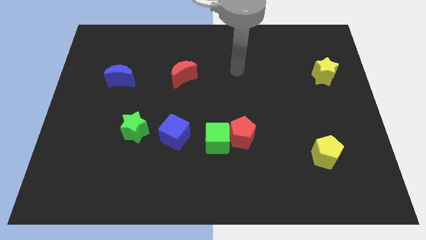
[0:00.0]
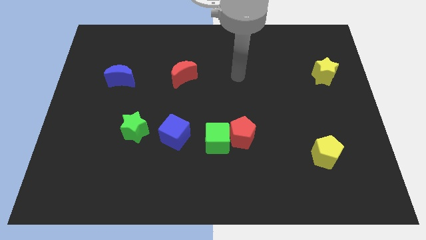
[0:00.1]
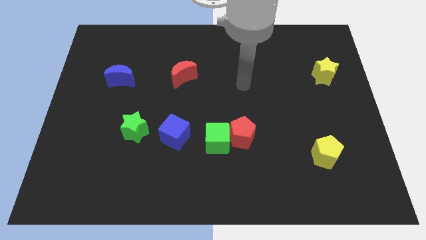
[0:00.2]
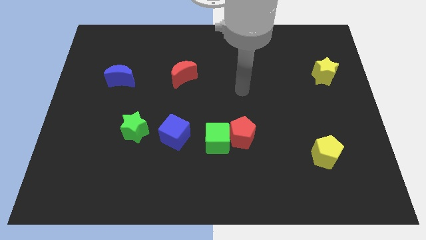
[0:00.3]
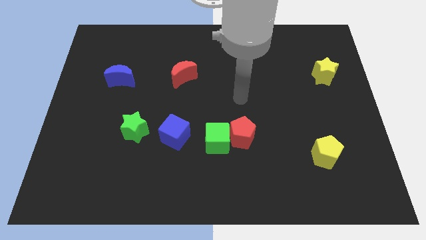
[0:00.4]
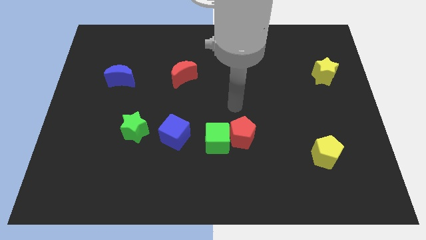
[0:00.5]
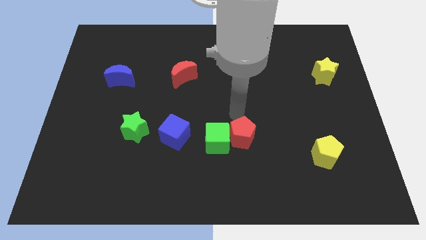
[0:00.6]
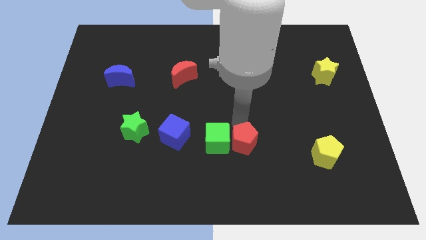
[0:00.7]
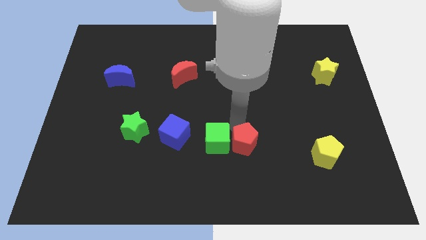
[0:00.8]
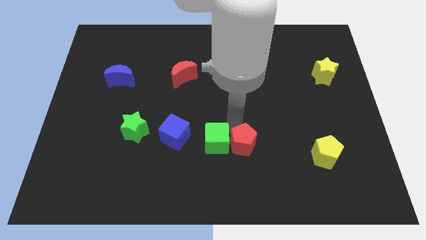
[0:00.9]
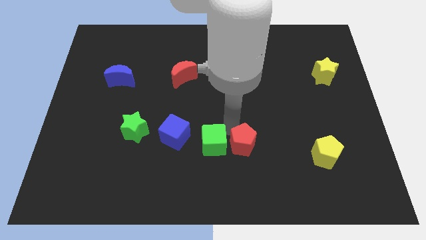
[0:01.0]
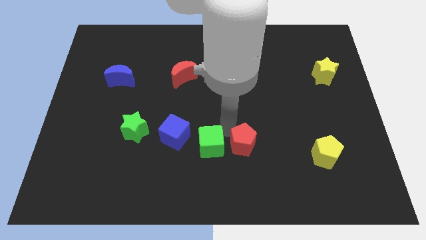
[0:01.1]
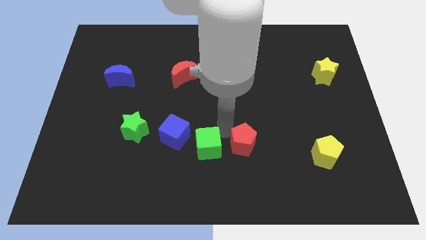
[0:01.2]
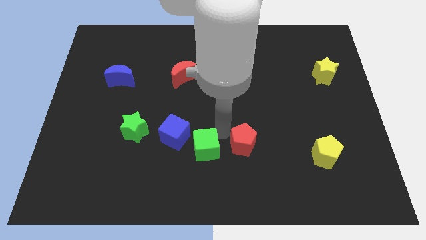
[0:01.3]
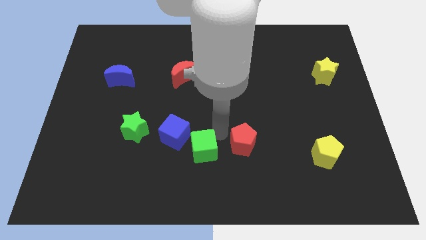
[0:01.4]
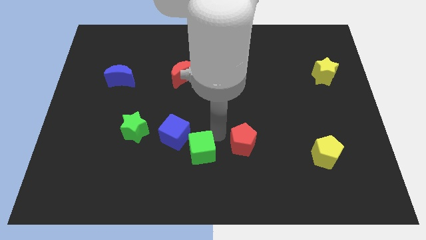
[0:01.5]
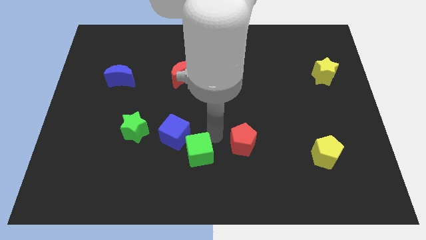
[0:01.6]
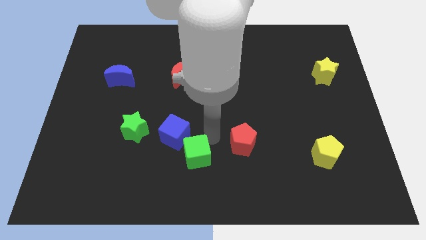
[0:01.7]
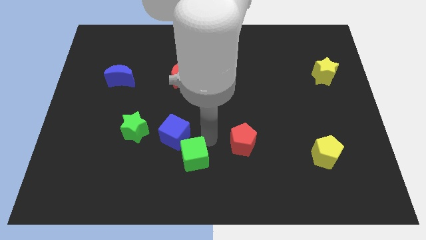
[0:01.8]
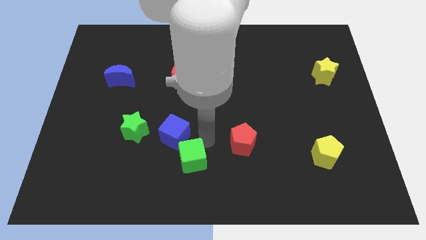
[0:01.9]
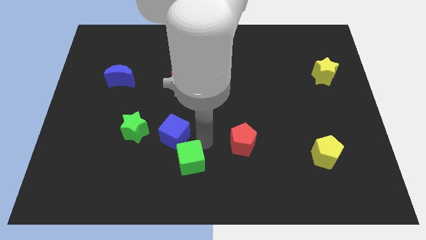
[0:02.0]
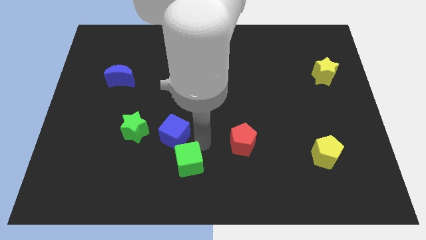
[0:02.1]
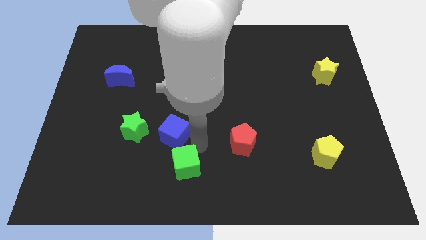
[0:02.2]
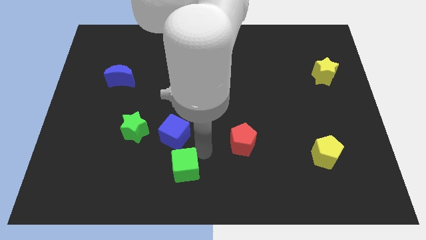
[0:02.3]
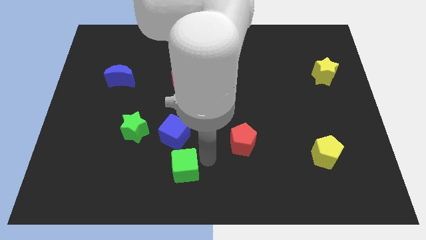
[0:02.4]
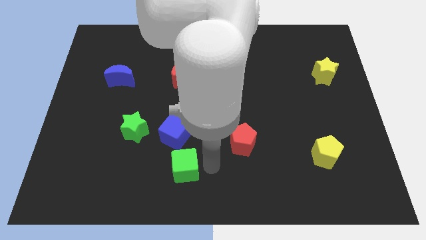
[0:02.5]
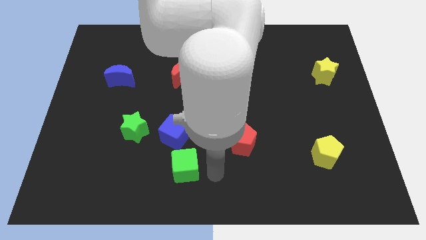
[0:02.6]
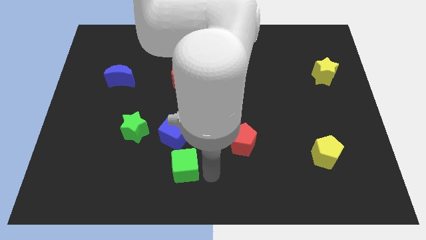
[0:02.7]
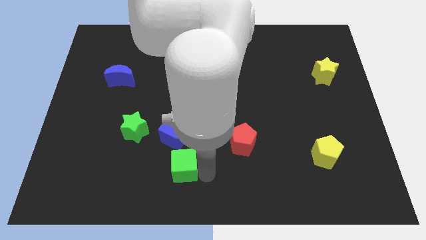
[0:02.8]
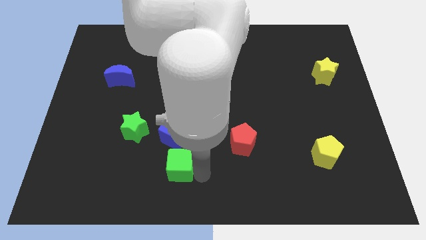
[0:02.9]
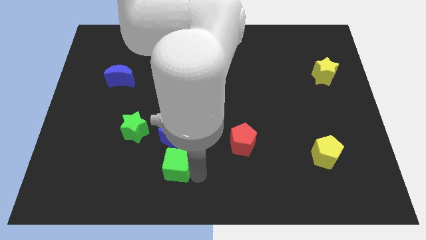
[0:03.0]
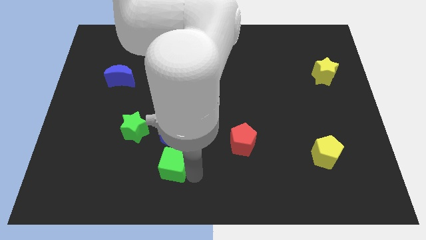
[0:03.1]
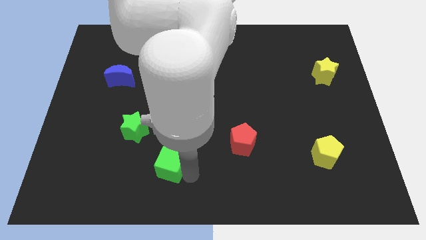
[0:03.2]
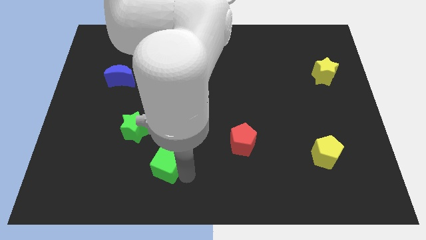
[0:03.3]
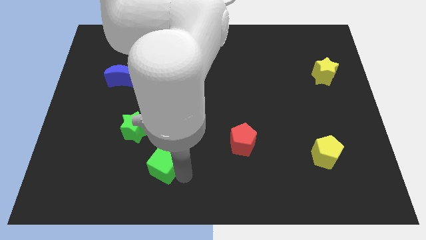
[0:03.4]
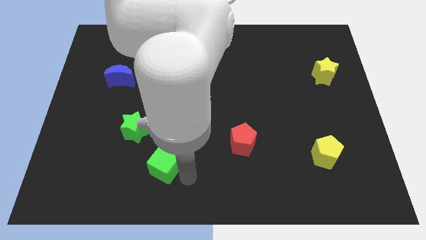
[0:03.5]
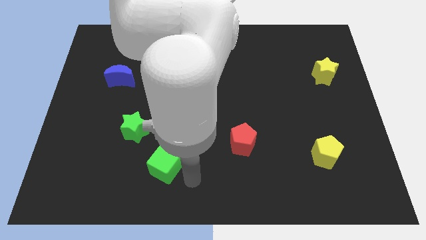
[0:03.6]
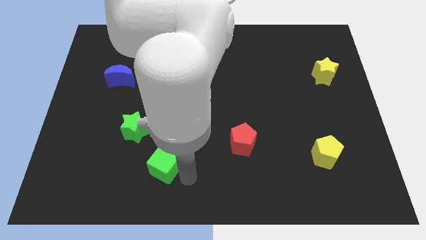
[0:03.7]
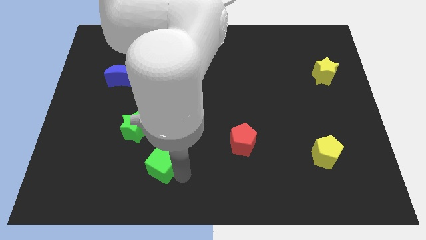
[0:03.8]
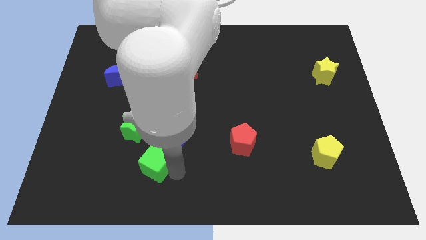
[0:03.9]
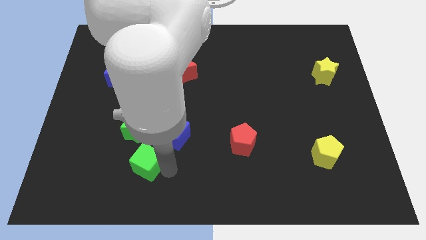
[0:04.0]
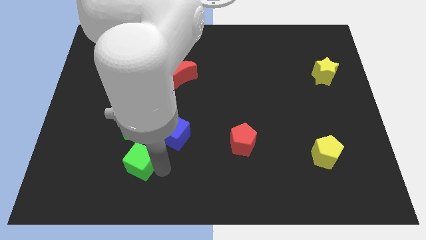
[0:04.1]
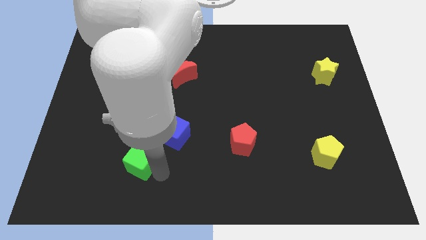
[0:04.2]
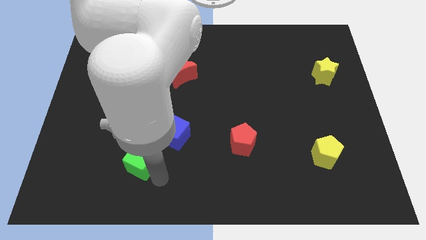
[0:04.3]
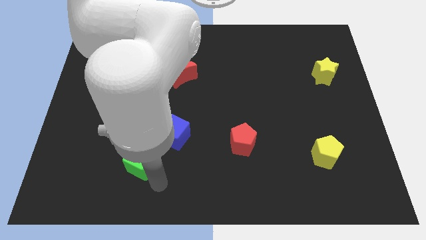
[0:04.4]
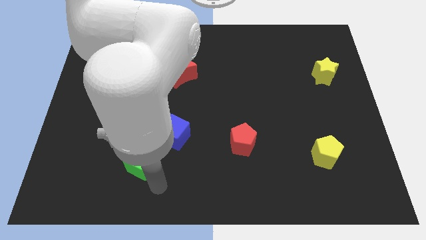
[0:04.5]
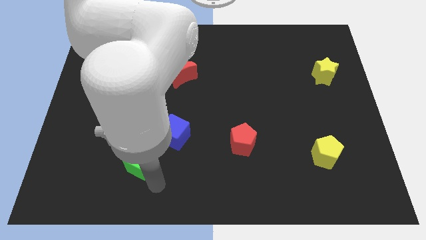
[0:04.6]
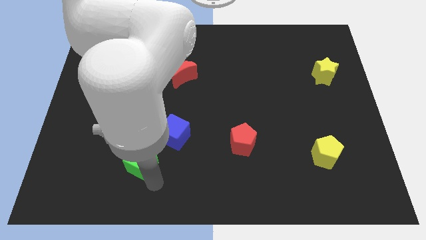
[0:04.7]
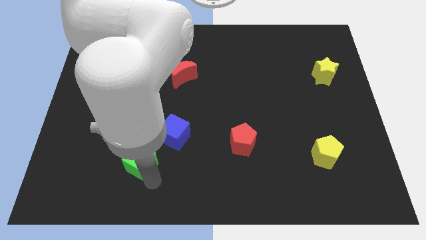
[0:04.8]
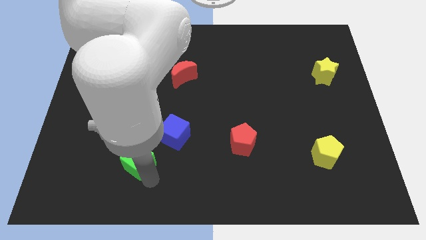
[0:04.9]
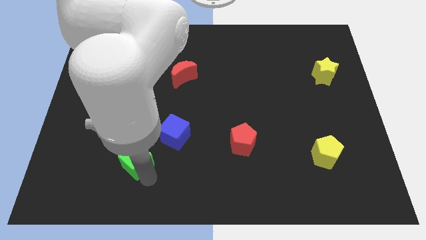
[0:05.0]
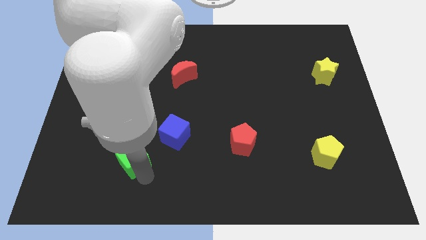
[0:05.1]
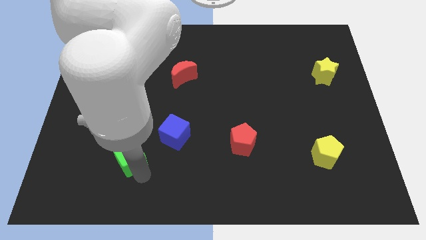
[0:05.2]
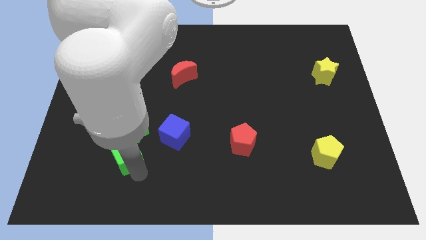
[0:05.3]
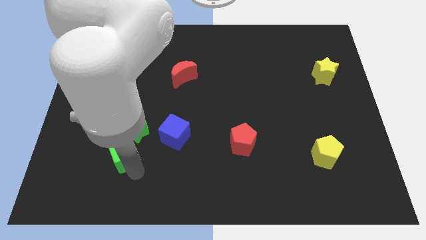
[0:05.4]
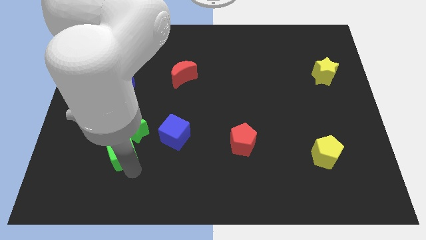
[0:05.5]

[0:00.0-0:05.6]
move the green cube left of the blue cube

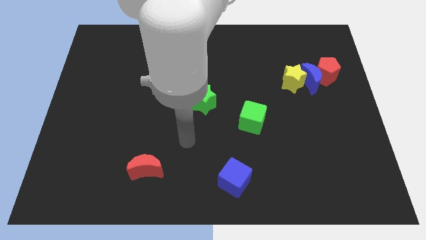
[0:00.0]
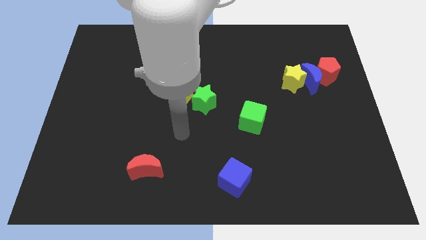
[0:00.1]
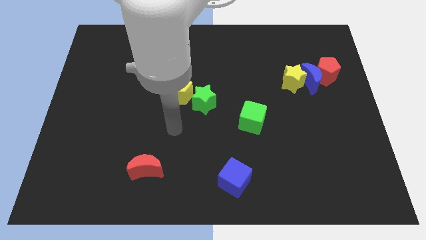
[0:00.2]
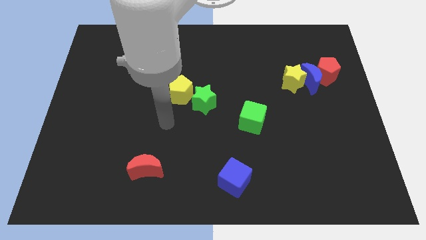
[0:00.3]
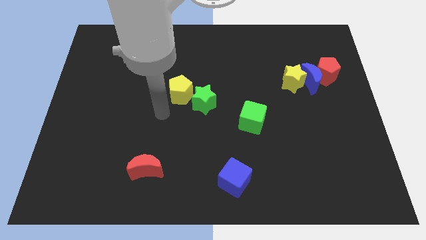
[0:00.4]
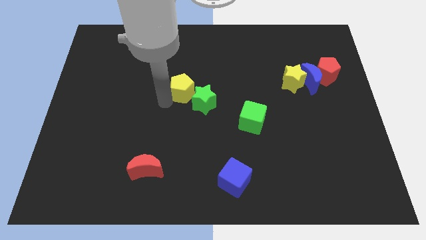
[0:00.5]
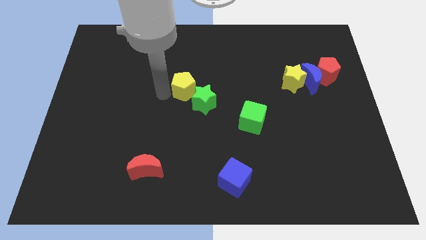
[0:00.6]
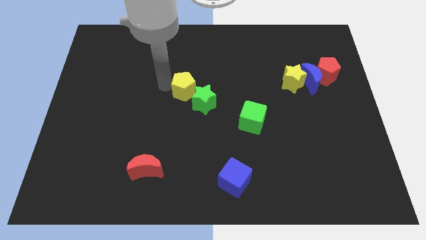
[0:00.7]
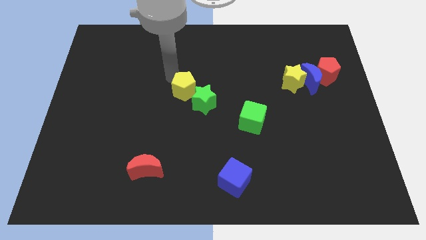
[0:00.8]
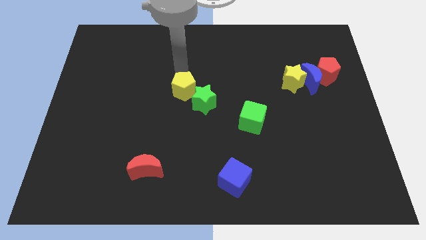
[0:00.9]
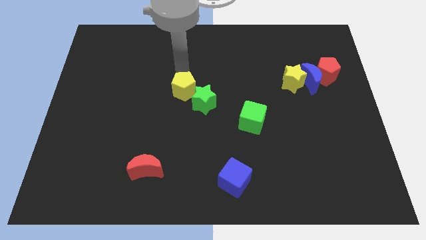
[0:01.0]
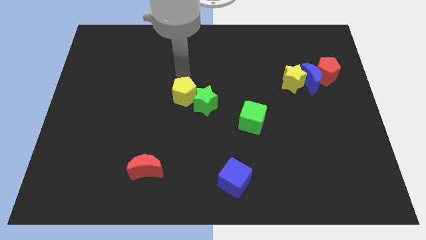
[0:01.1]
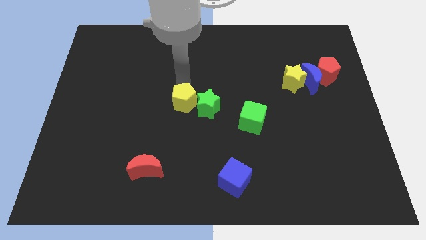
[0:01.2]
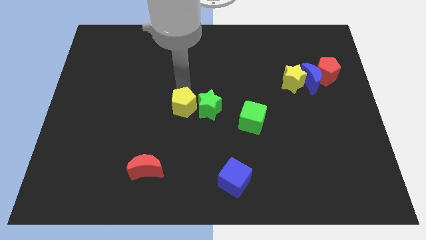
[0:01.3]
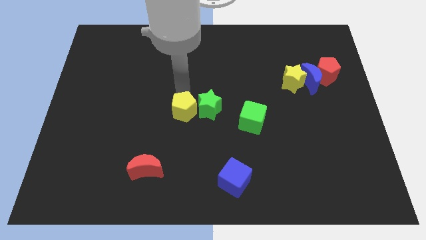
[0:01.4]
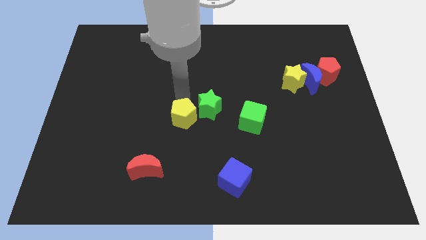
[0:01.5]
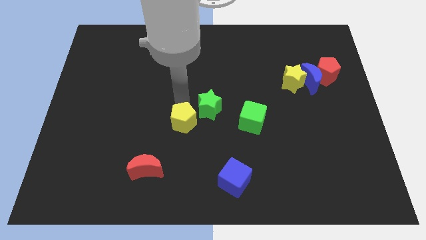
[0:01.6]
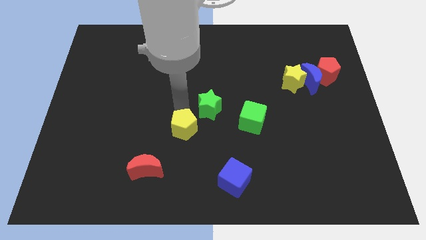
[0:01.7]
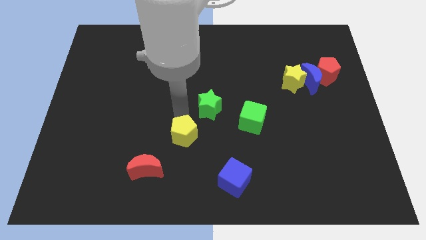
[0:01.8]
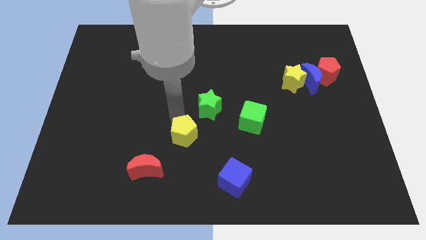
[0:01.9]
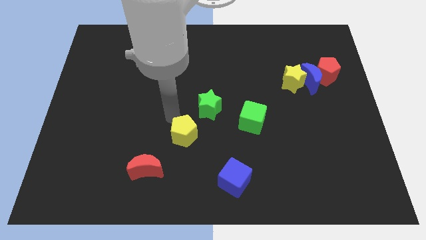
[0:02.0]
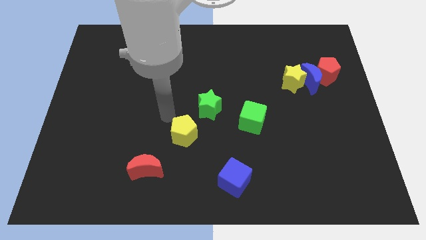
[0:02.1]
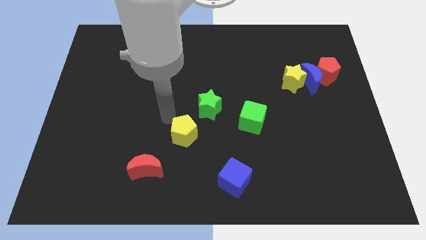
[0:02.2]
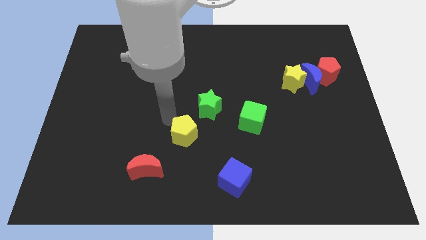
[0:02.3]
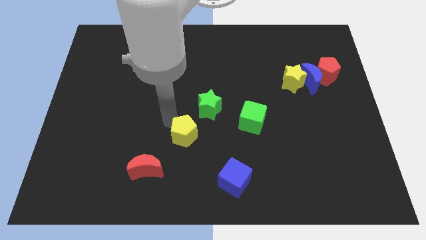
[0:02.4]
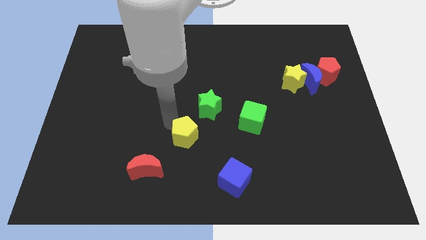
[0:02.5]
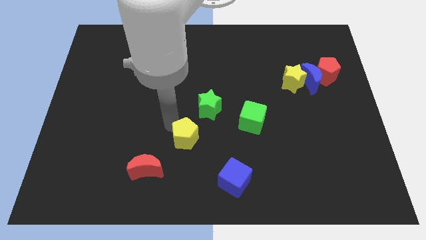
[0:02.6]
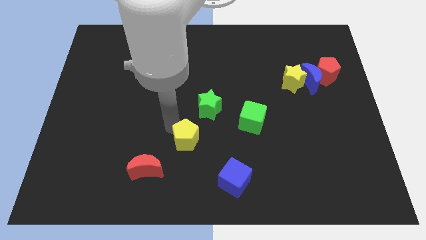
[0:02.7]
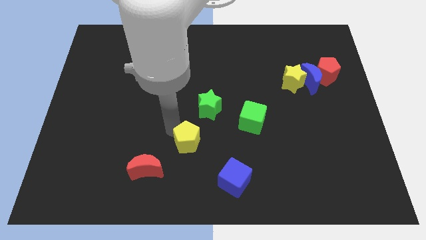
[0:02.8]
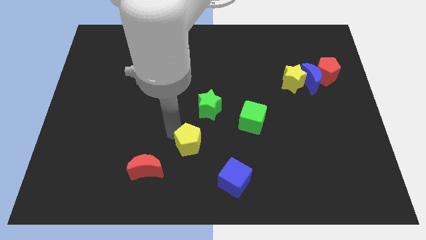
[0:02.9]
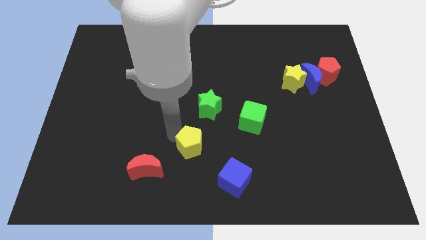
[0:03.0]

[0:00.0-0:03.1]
put the yellow pentagon to the top left of the blue cube
